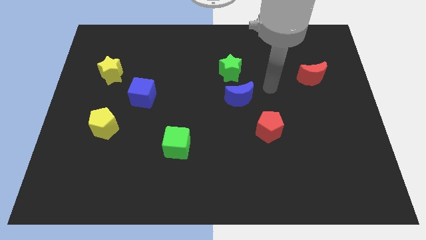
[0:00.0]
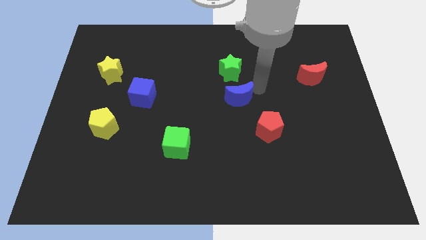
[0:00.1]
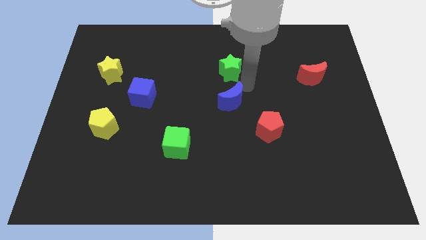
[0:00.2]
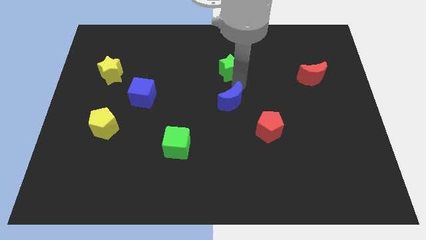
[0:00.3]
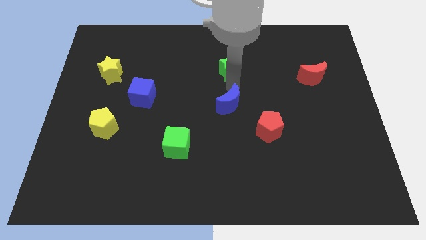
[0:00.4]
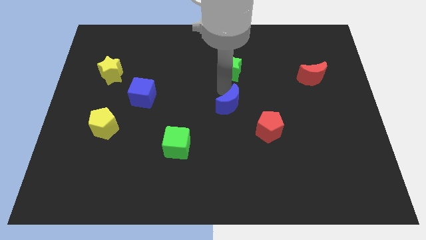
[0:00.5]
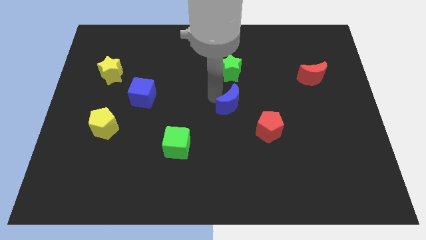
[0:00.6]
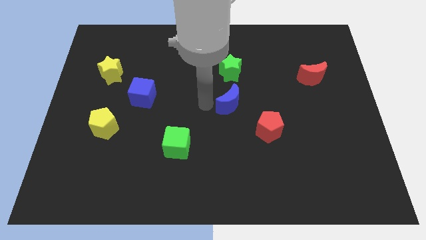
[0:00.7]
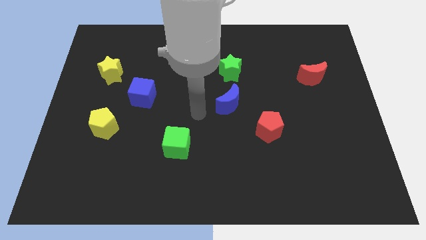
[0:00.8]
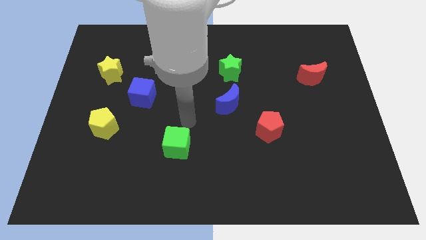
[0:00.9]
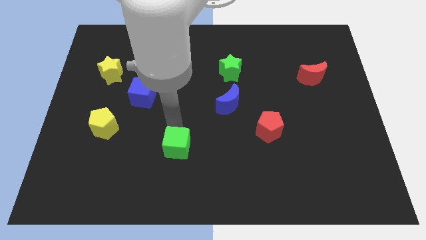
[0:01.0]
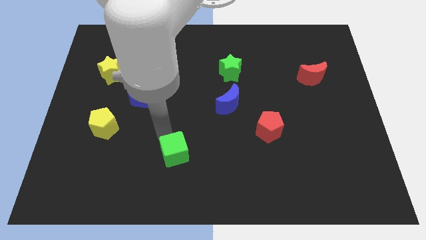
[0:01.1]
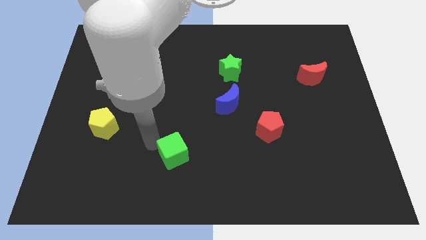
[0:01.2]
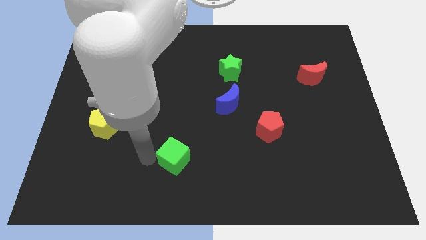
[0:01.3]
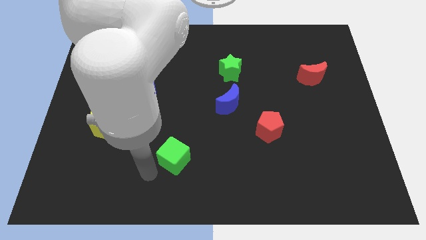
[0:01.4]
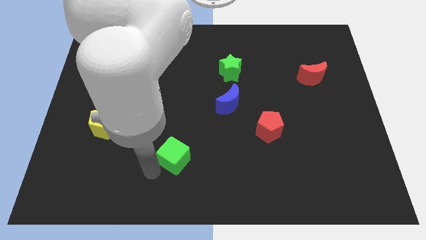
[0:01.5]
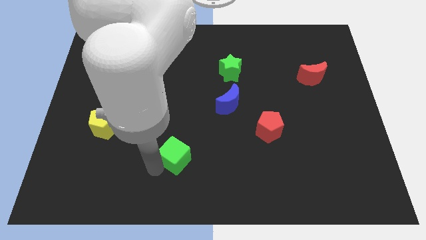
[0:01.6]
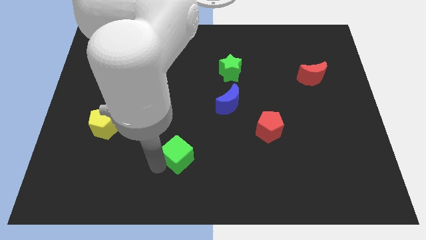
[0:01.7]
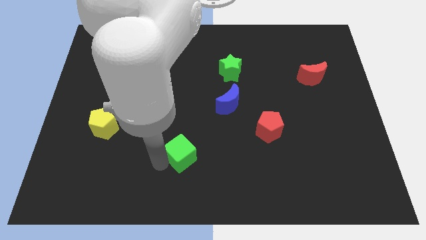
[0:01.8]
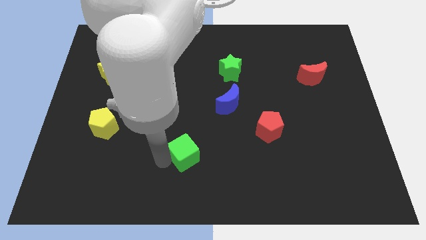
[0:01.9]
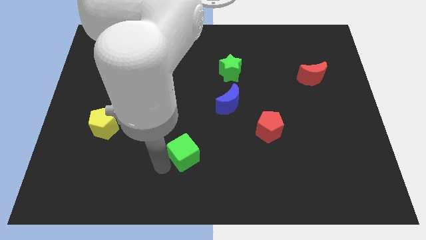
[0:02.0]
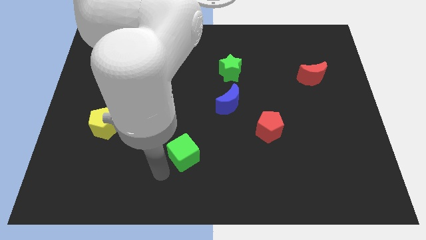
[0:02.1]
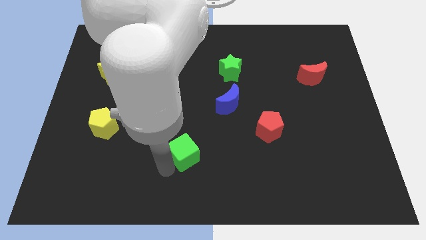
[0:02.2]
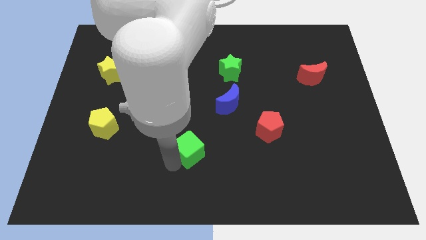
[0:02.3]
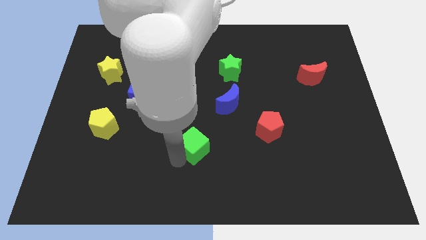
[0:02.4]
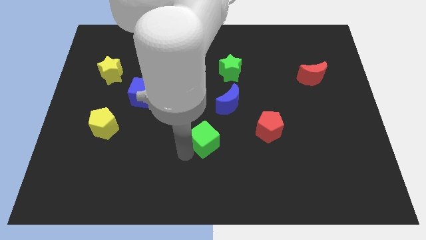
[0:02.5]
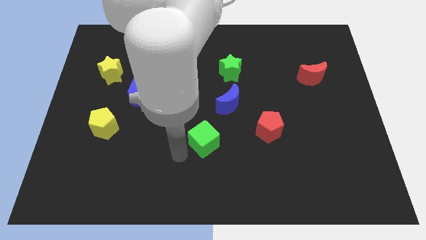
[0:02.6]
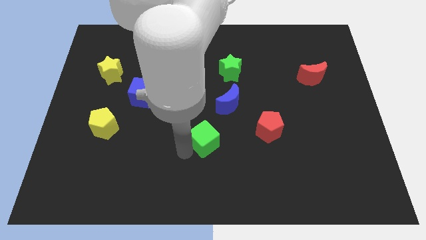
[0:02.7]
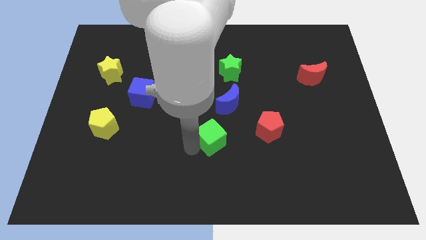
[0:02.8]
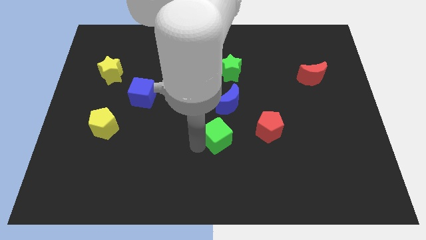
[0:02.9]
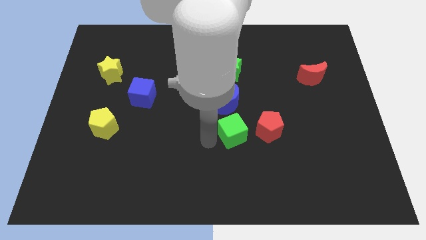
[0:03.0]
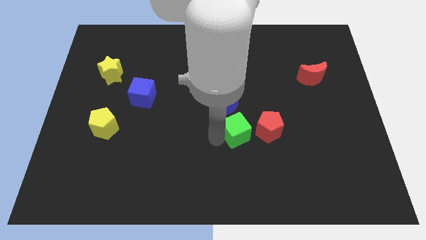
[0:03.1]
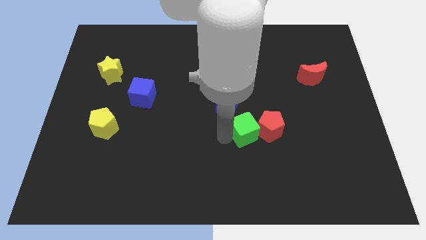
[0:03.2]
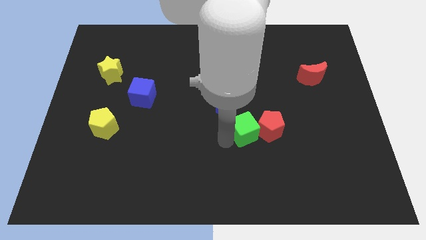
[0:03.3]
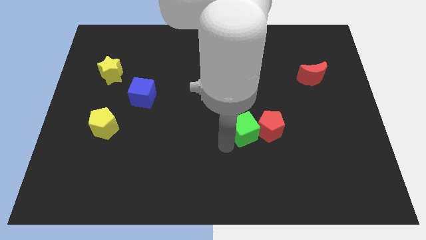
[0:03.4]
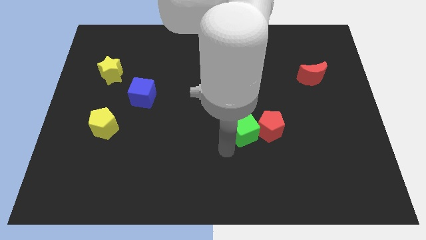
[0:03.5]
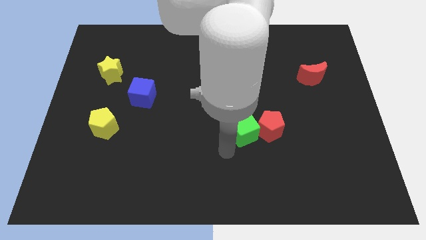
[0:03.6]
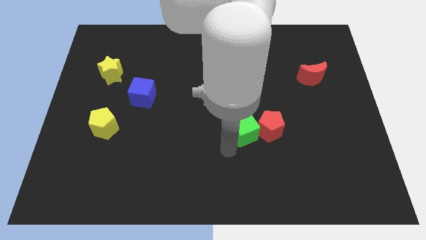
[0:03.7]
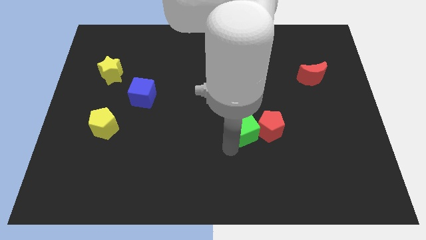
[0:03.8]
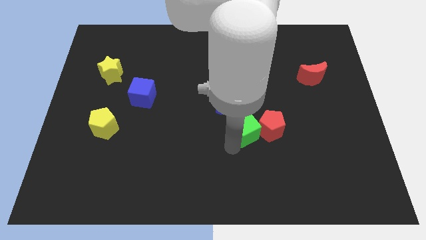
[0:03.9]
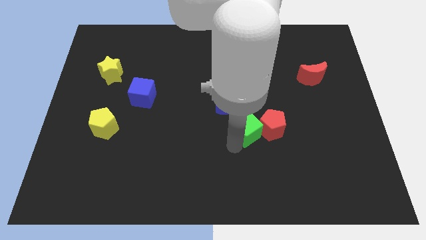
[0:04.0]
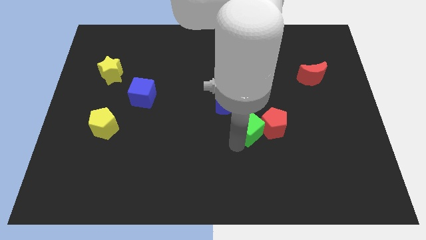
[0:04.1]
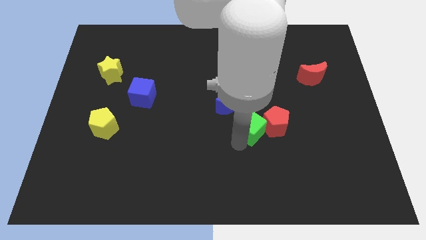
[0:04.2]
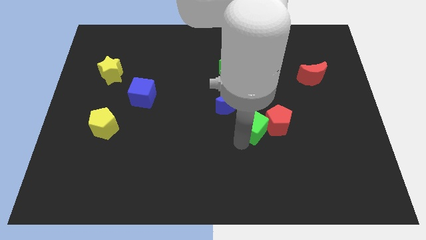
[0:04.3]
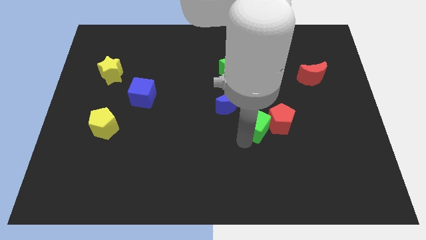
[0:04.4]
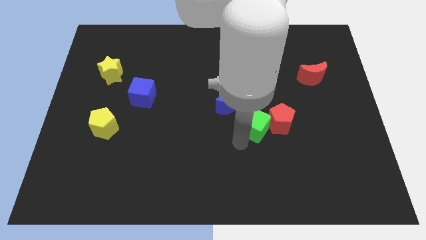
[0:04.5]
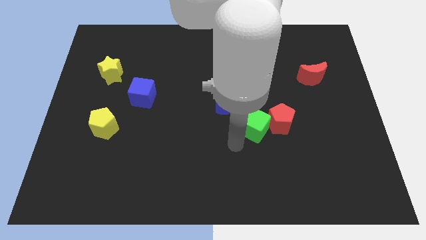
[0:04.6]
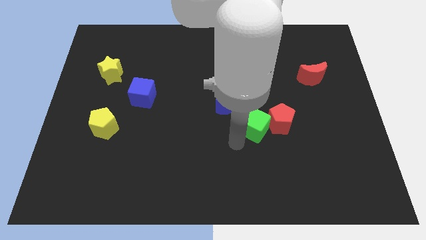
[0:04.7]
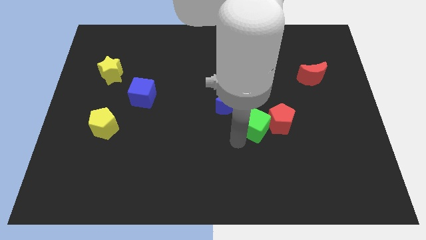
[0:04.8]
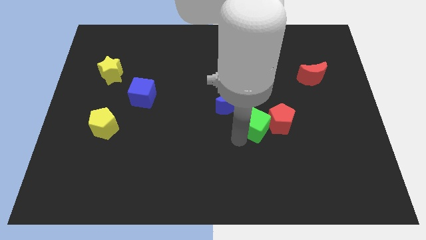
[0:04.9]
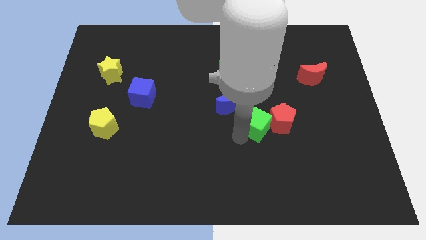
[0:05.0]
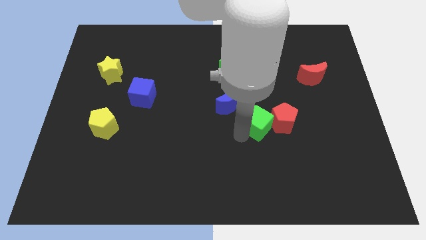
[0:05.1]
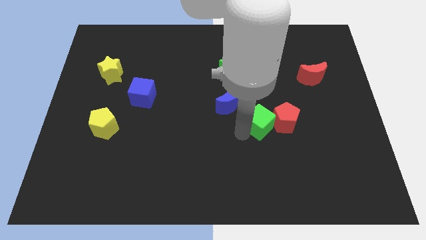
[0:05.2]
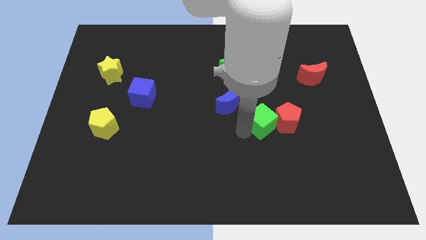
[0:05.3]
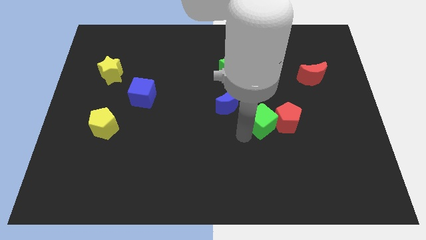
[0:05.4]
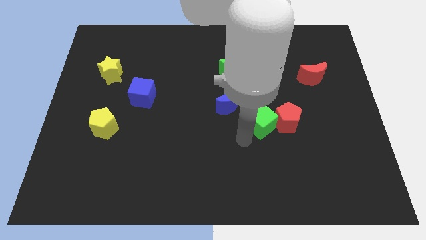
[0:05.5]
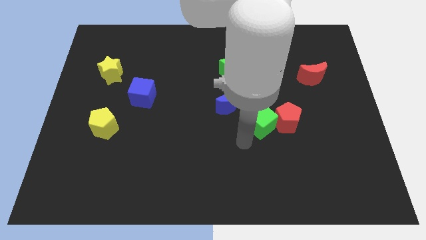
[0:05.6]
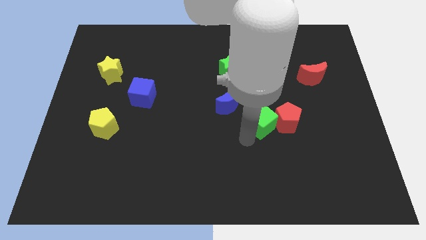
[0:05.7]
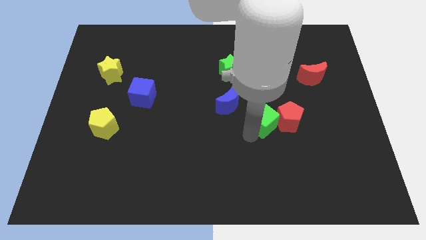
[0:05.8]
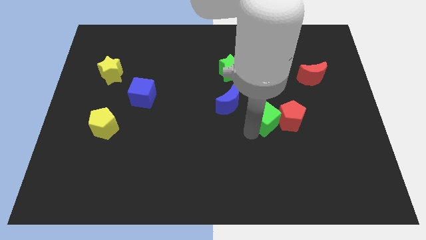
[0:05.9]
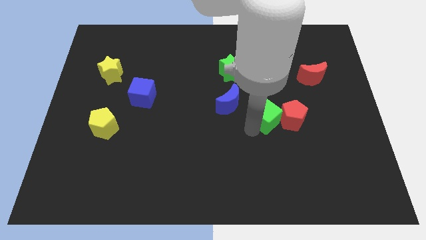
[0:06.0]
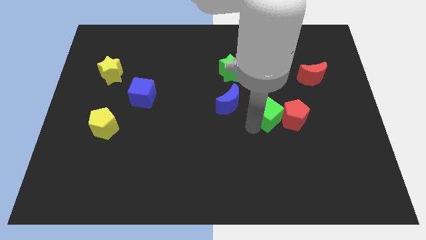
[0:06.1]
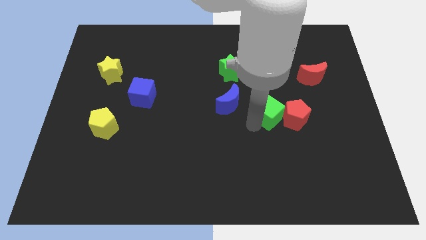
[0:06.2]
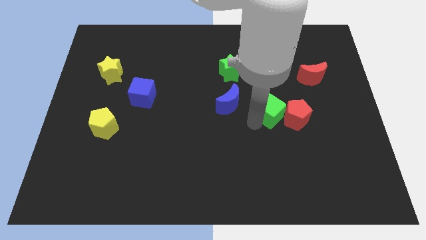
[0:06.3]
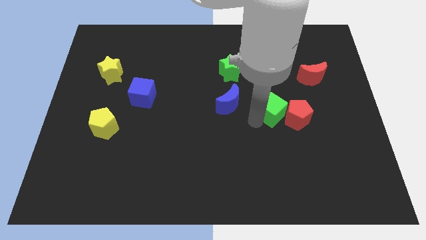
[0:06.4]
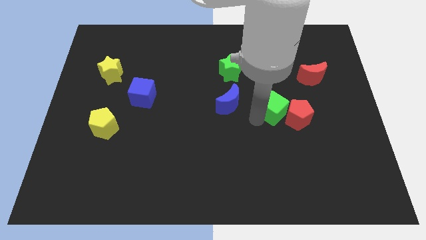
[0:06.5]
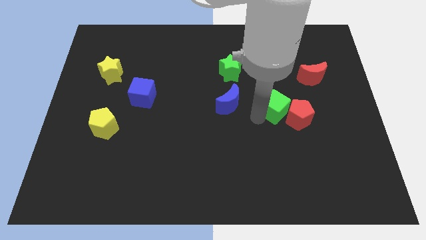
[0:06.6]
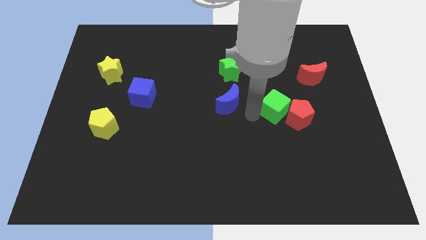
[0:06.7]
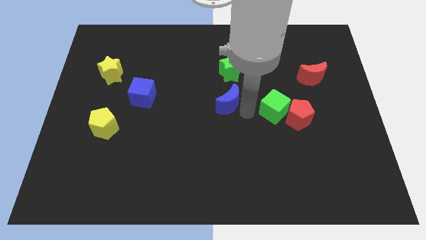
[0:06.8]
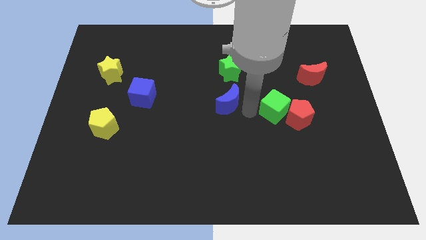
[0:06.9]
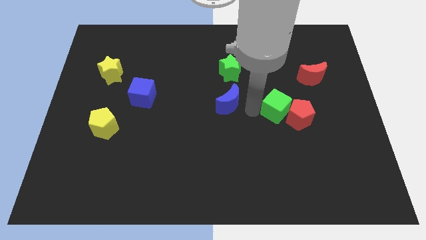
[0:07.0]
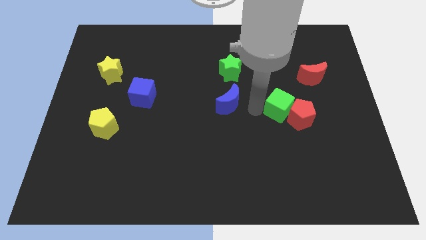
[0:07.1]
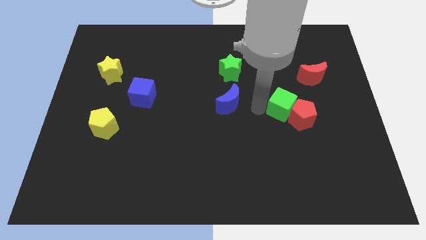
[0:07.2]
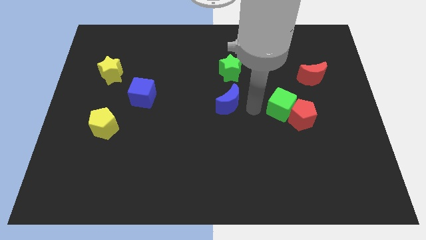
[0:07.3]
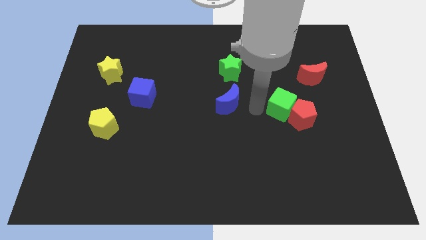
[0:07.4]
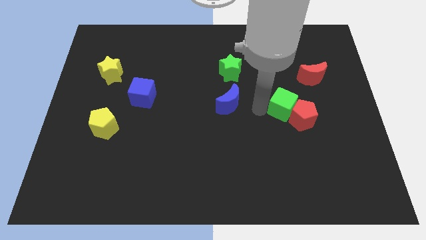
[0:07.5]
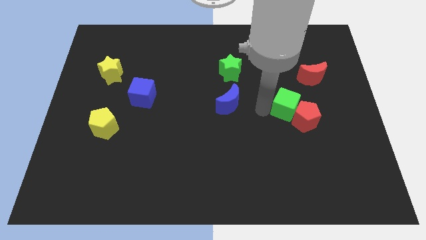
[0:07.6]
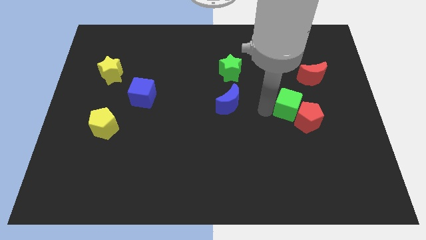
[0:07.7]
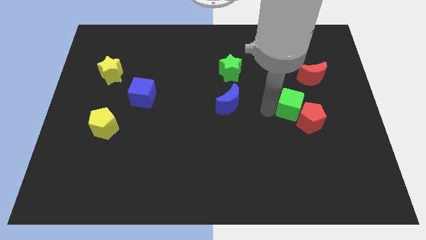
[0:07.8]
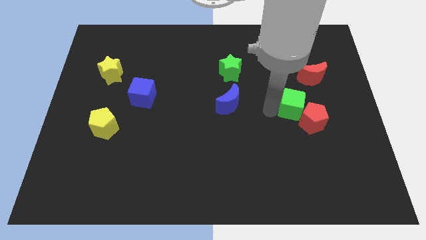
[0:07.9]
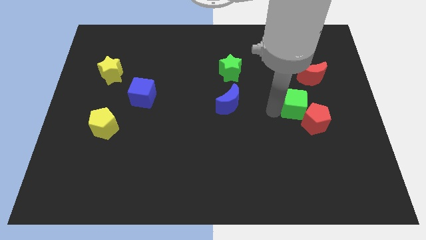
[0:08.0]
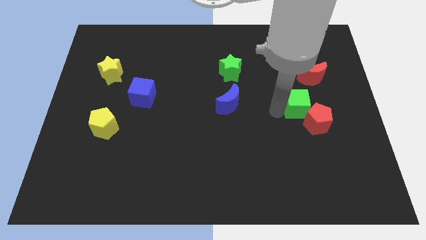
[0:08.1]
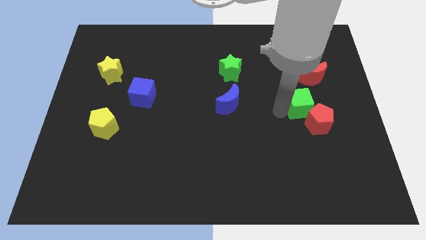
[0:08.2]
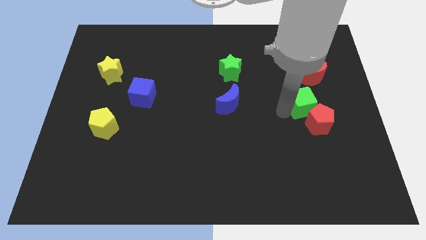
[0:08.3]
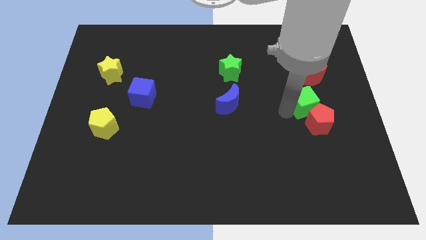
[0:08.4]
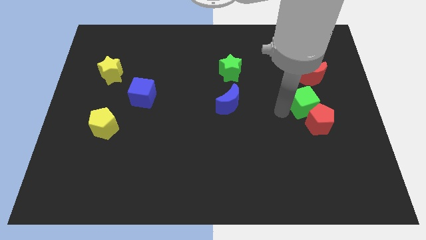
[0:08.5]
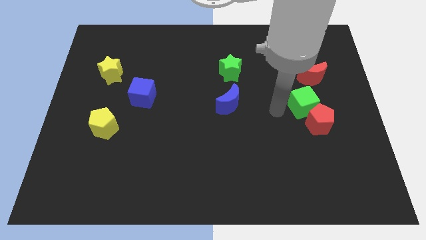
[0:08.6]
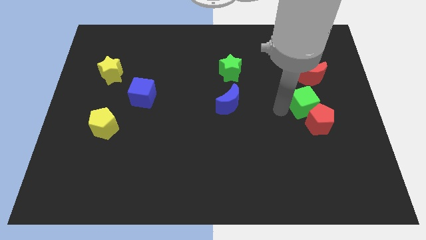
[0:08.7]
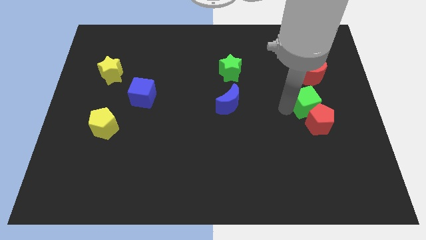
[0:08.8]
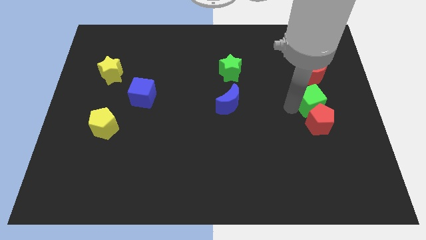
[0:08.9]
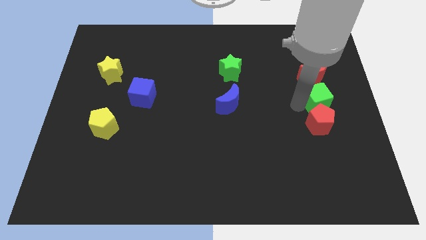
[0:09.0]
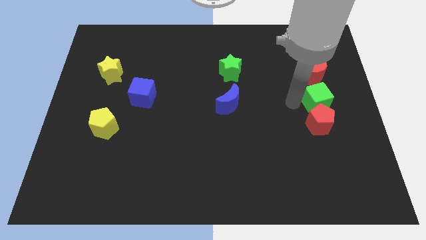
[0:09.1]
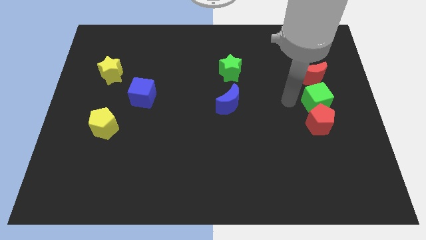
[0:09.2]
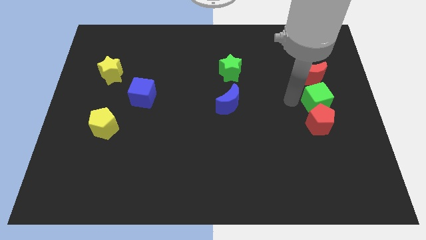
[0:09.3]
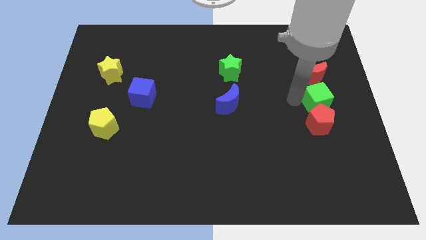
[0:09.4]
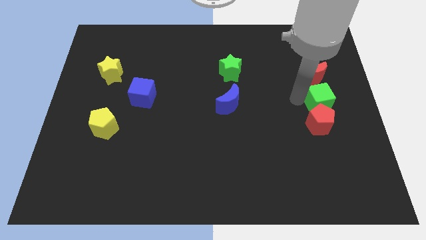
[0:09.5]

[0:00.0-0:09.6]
put the green cube to the center right
